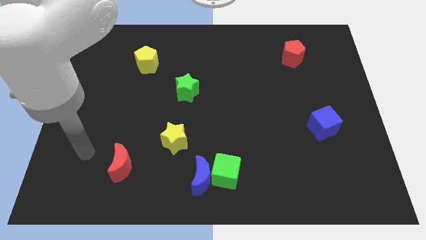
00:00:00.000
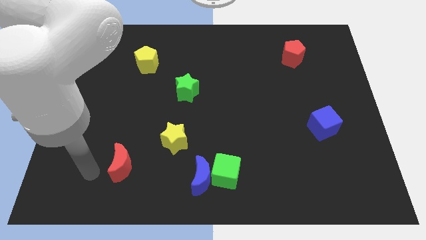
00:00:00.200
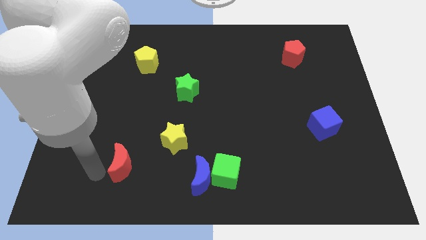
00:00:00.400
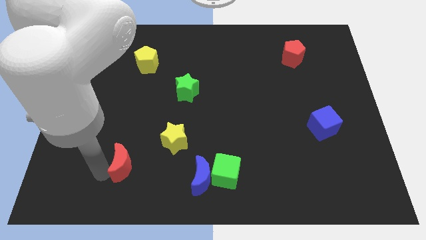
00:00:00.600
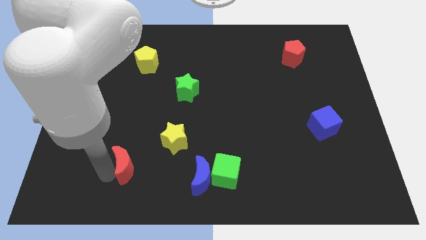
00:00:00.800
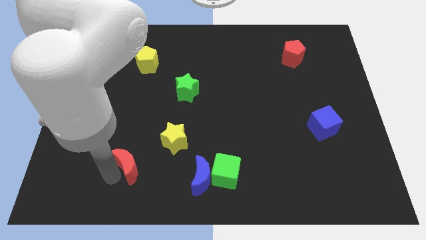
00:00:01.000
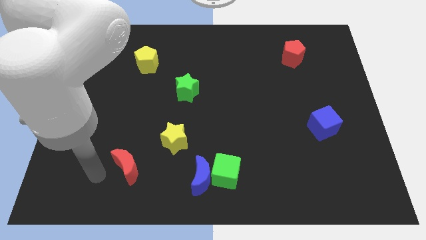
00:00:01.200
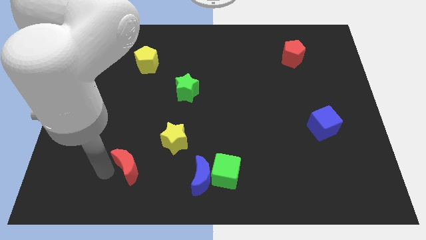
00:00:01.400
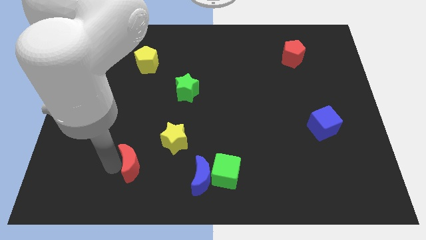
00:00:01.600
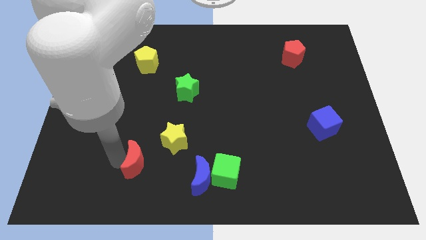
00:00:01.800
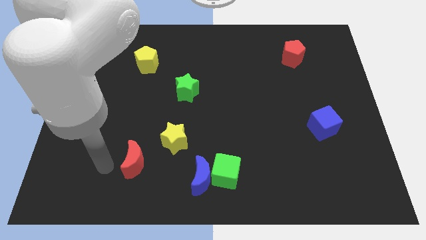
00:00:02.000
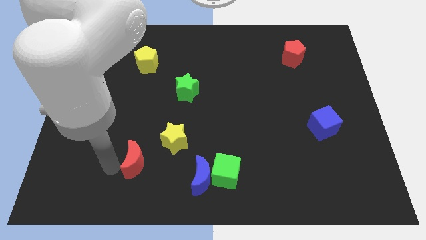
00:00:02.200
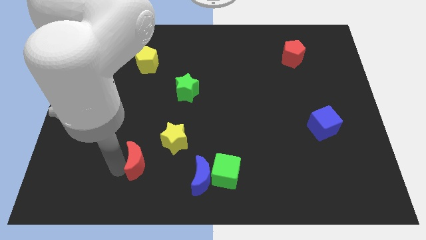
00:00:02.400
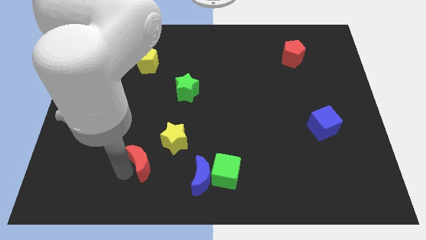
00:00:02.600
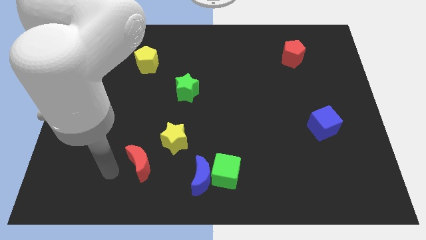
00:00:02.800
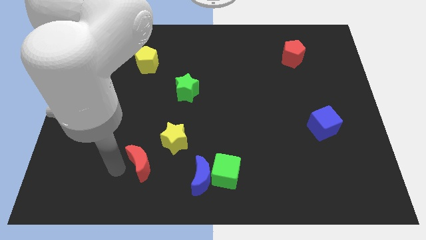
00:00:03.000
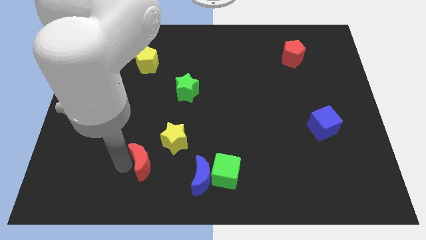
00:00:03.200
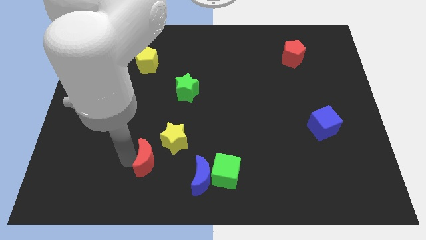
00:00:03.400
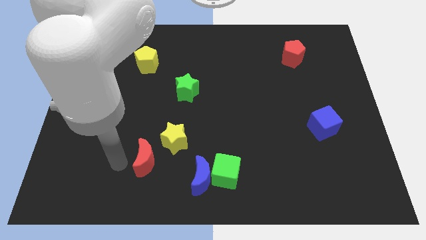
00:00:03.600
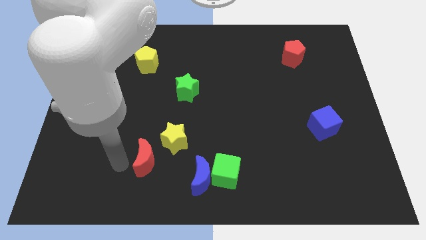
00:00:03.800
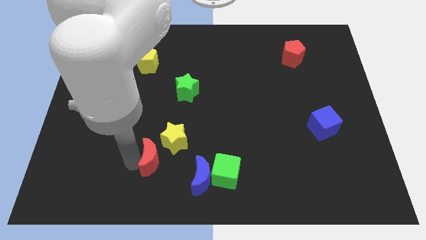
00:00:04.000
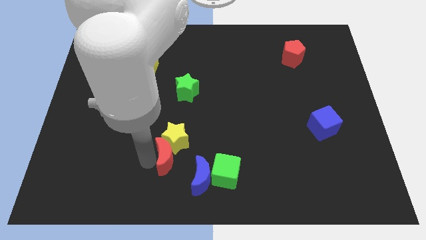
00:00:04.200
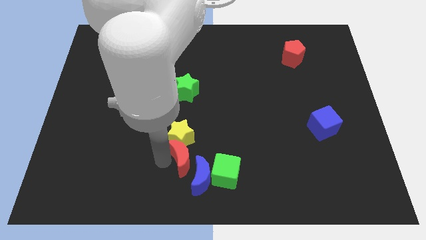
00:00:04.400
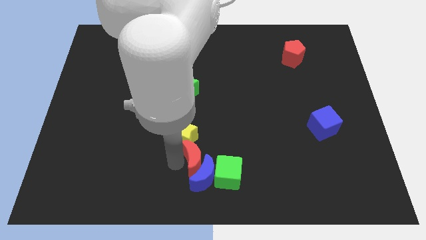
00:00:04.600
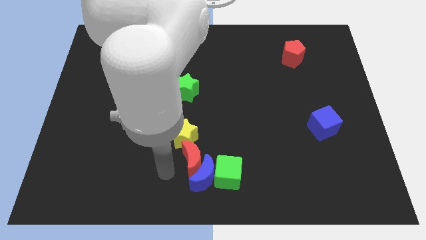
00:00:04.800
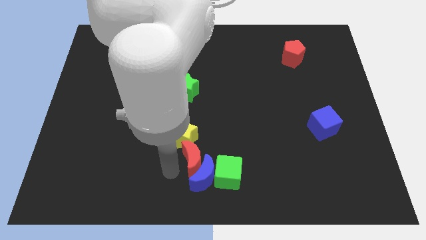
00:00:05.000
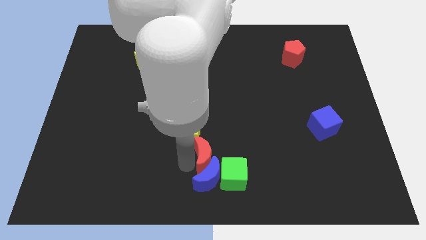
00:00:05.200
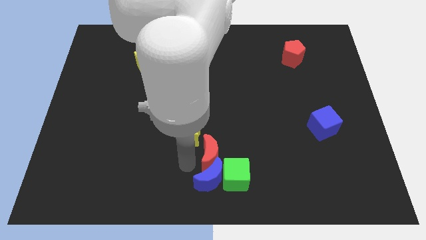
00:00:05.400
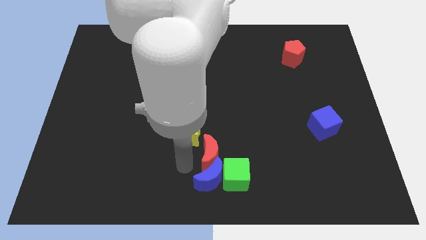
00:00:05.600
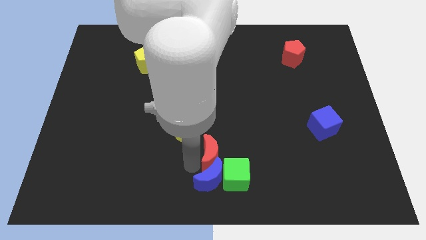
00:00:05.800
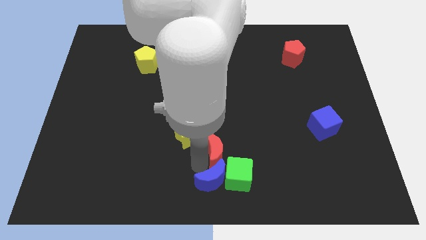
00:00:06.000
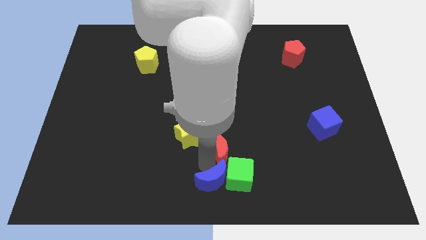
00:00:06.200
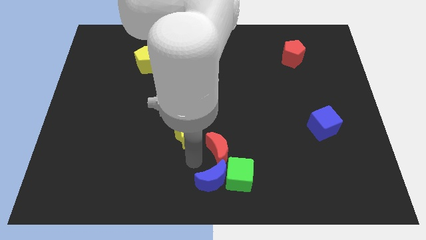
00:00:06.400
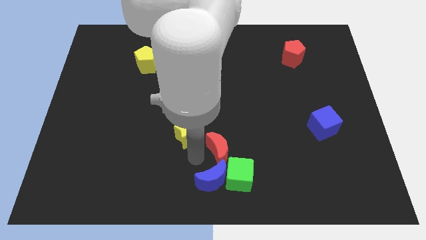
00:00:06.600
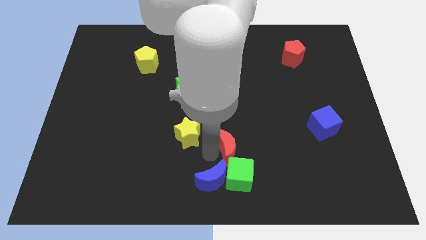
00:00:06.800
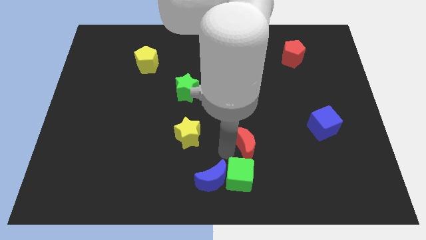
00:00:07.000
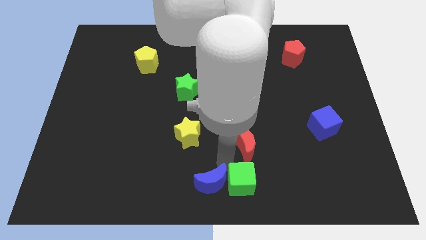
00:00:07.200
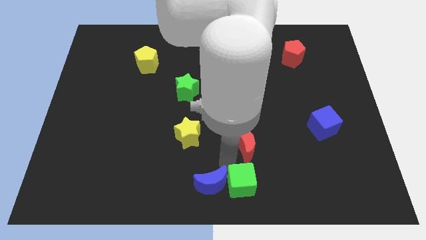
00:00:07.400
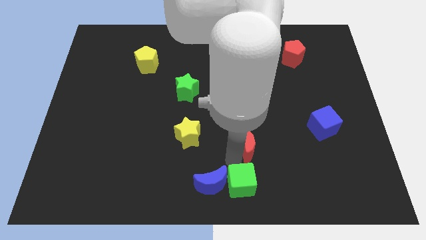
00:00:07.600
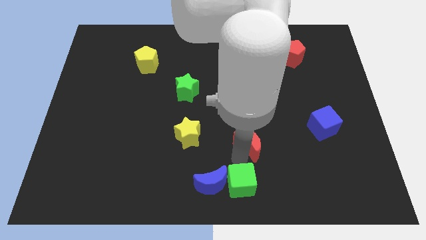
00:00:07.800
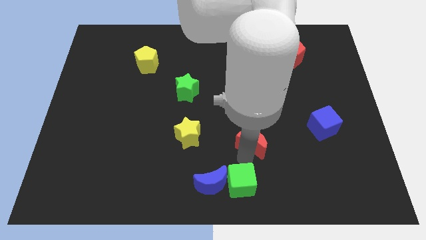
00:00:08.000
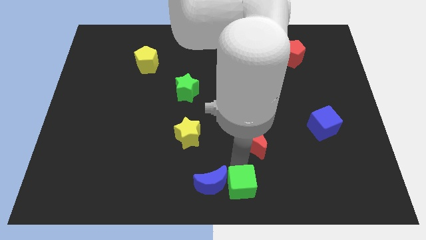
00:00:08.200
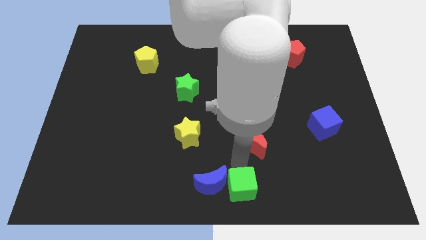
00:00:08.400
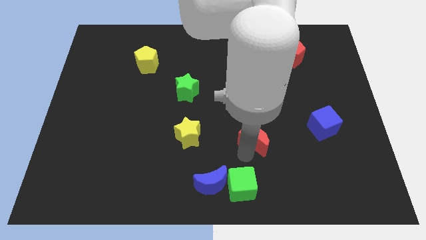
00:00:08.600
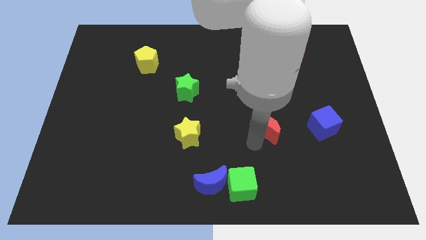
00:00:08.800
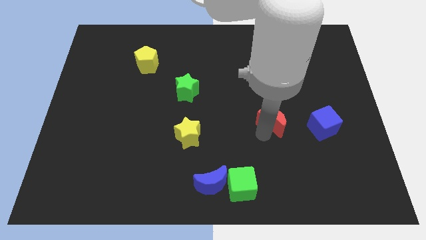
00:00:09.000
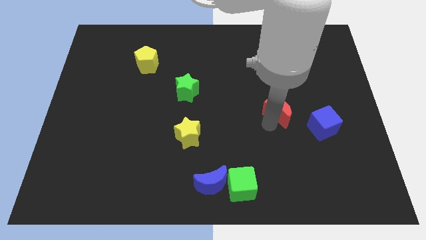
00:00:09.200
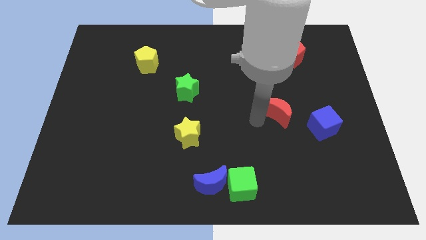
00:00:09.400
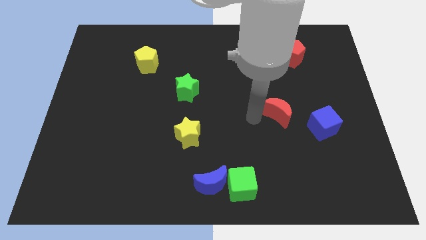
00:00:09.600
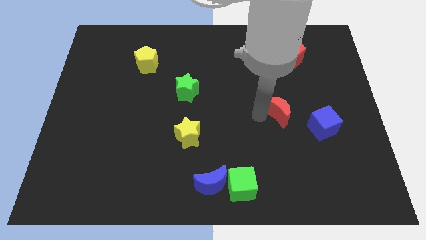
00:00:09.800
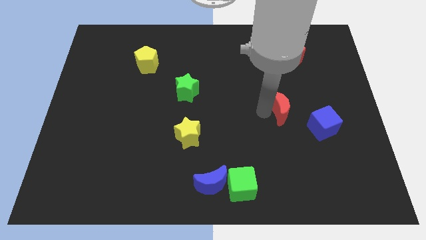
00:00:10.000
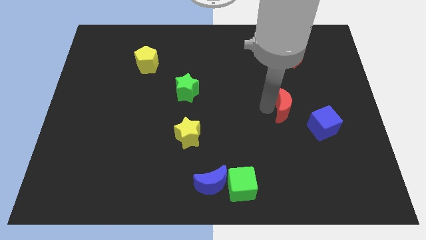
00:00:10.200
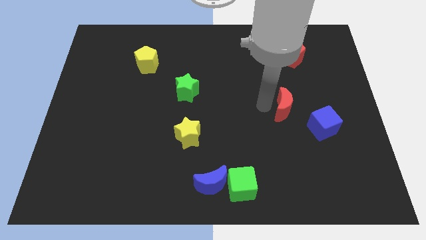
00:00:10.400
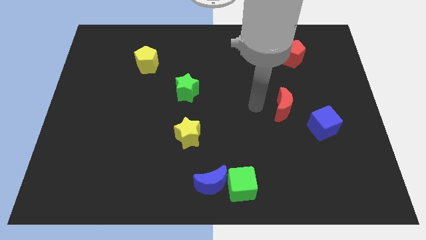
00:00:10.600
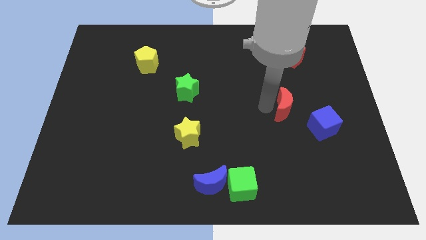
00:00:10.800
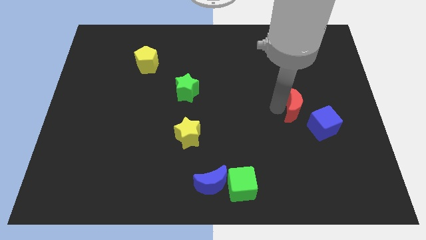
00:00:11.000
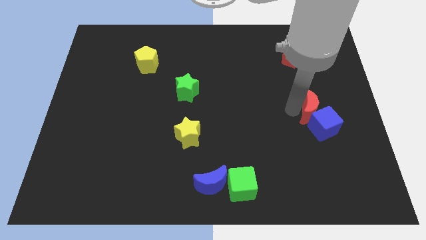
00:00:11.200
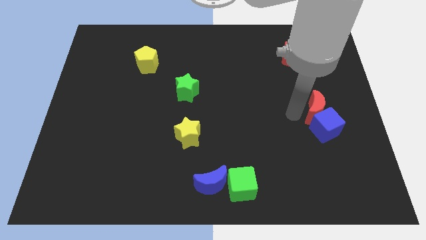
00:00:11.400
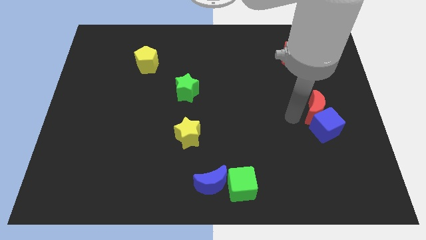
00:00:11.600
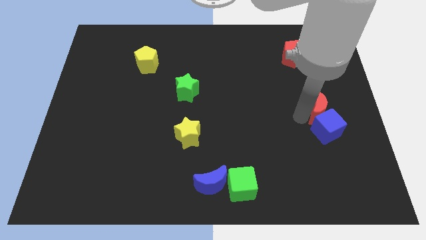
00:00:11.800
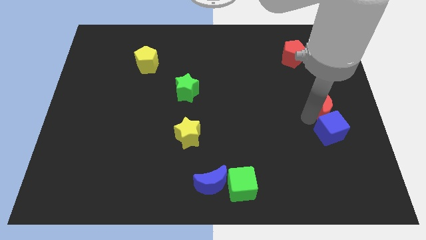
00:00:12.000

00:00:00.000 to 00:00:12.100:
push the red moon to the center right
